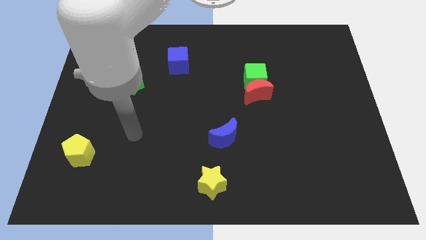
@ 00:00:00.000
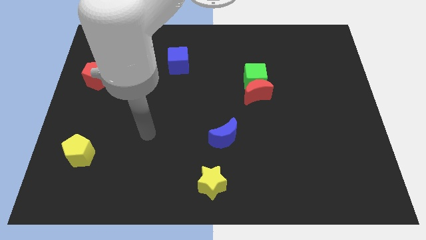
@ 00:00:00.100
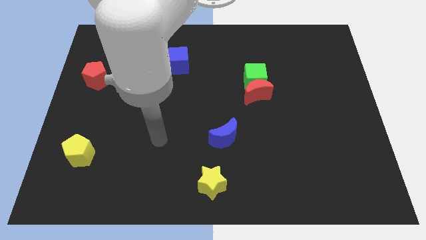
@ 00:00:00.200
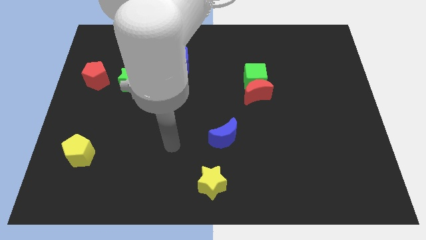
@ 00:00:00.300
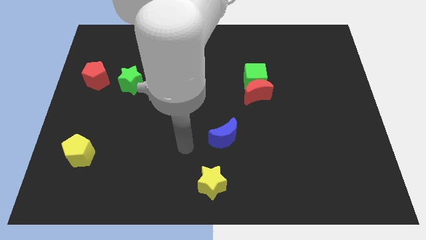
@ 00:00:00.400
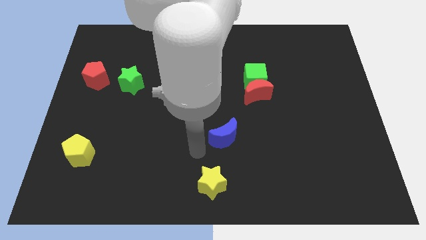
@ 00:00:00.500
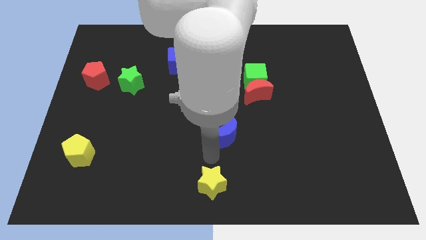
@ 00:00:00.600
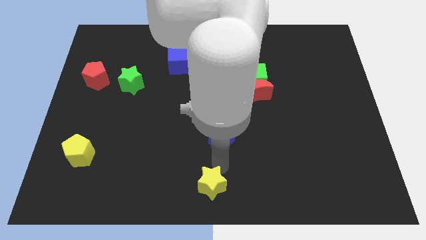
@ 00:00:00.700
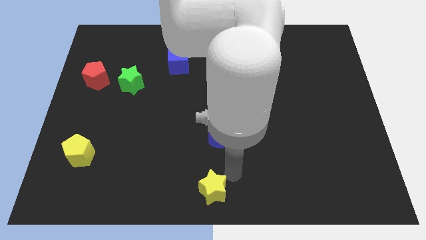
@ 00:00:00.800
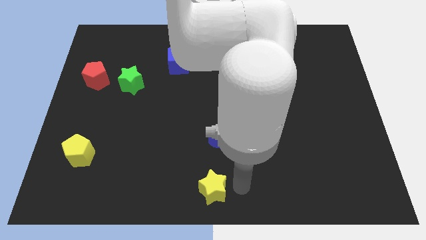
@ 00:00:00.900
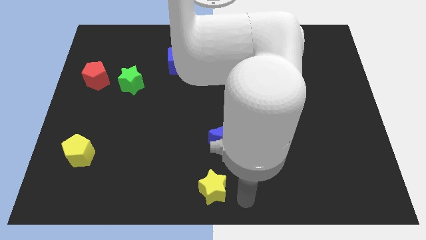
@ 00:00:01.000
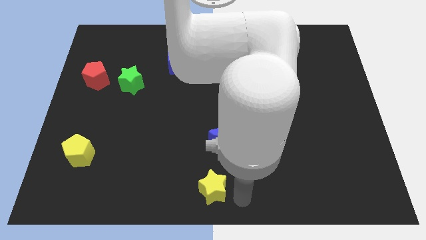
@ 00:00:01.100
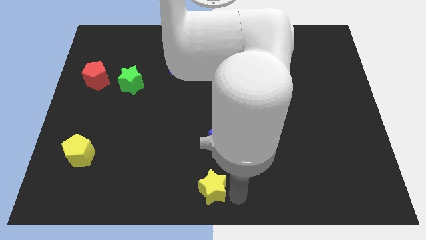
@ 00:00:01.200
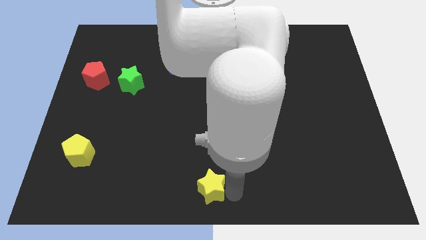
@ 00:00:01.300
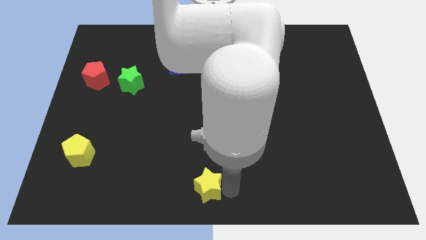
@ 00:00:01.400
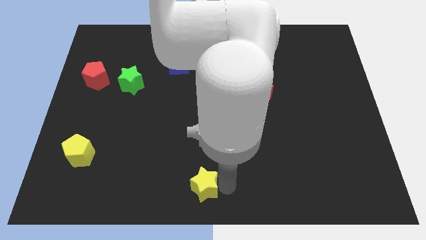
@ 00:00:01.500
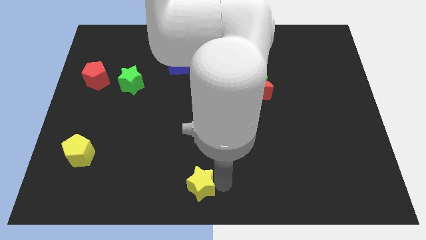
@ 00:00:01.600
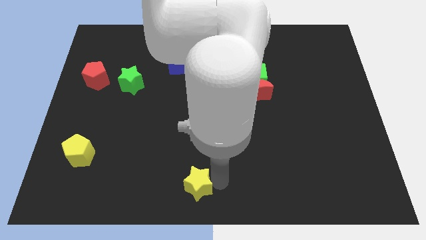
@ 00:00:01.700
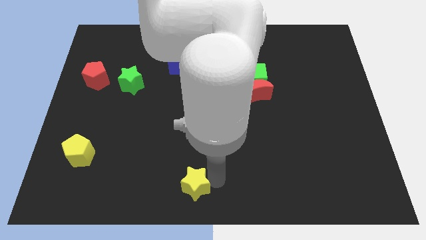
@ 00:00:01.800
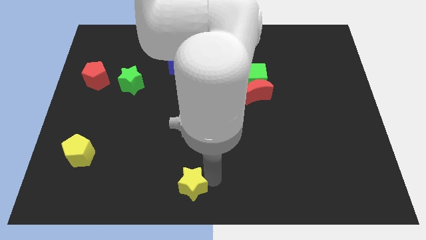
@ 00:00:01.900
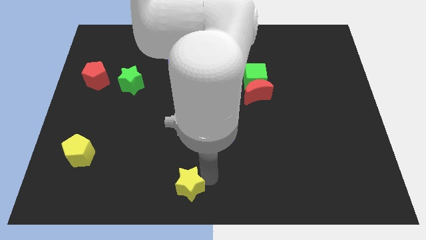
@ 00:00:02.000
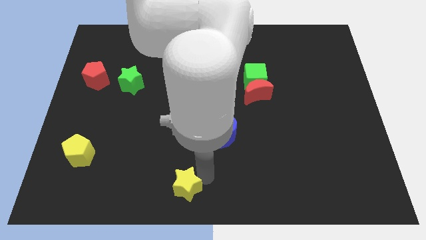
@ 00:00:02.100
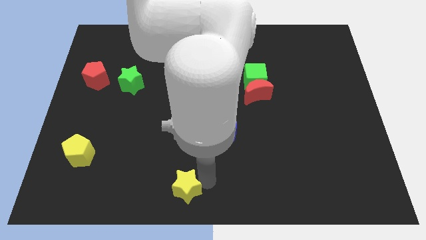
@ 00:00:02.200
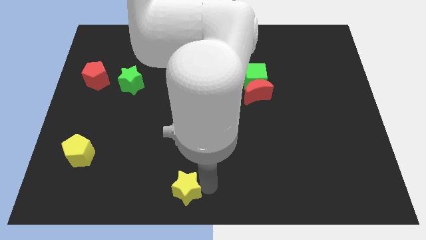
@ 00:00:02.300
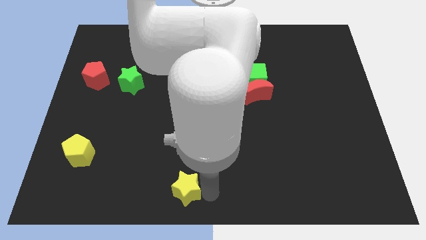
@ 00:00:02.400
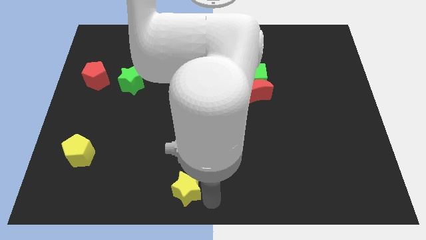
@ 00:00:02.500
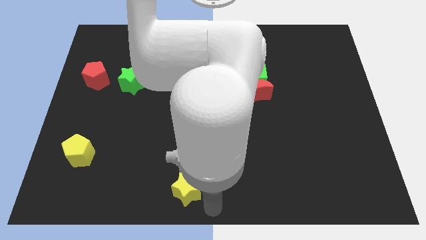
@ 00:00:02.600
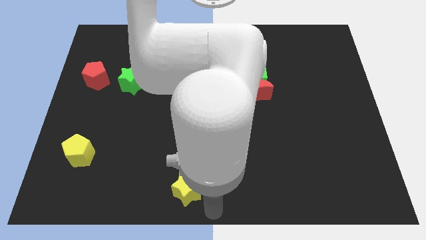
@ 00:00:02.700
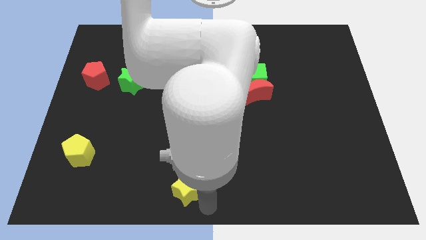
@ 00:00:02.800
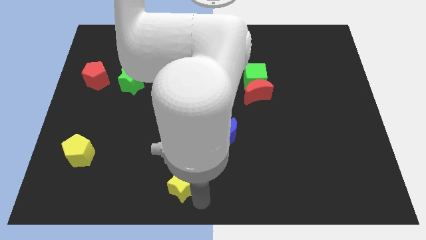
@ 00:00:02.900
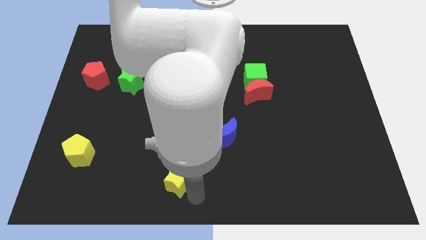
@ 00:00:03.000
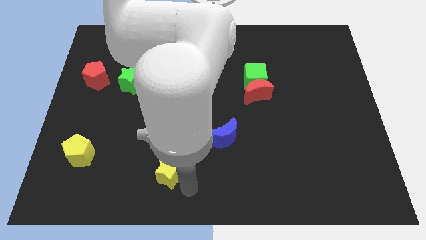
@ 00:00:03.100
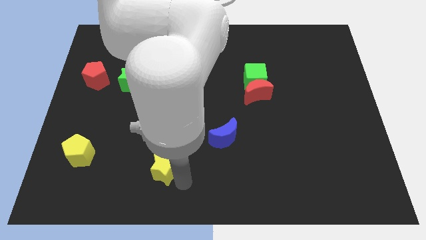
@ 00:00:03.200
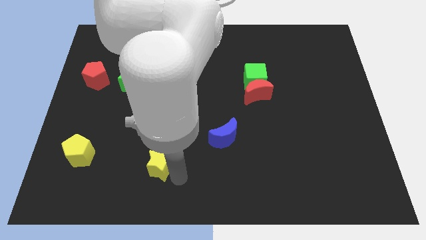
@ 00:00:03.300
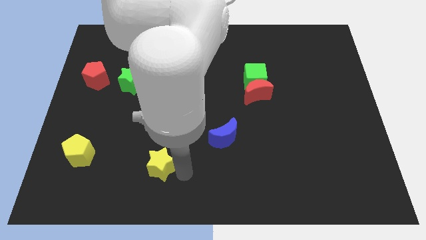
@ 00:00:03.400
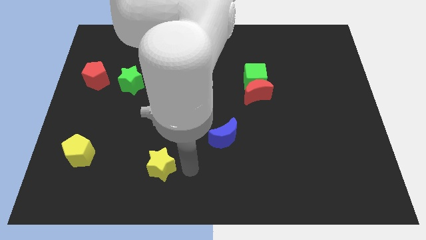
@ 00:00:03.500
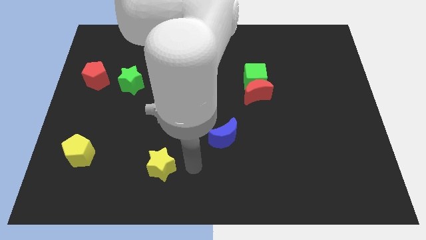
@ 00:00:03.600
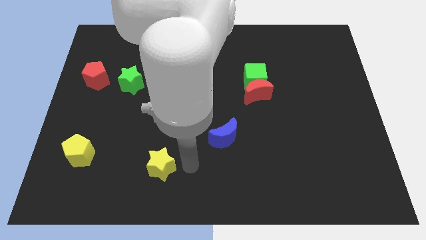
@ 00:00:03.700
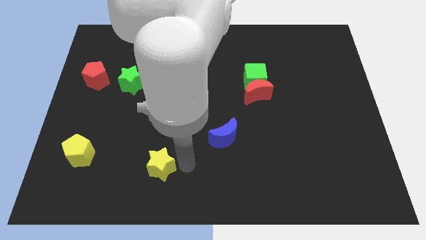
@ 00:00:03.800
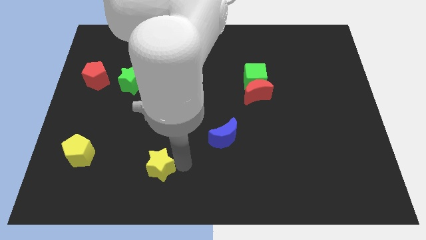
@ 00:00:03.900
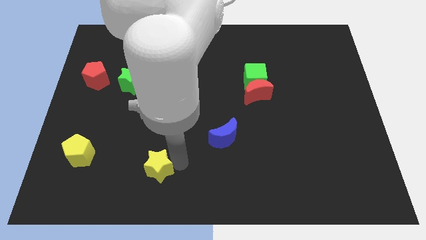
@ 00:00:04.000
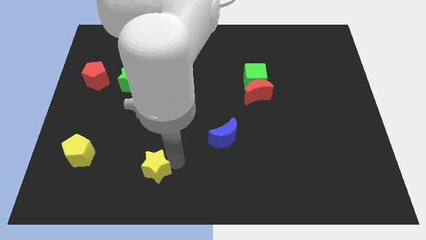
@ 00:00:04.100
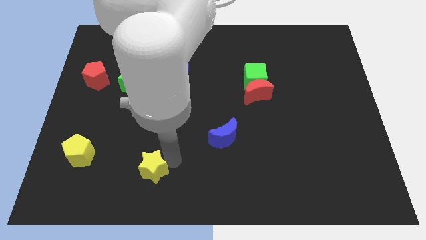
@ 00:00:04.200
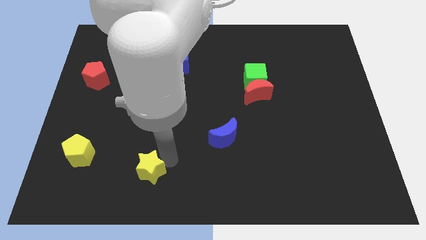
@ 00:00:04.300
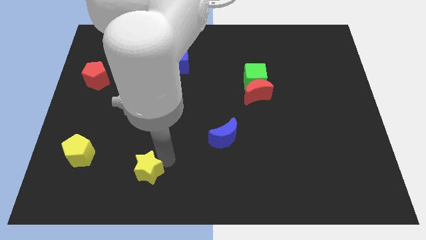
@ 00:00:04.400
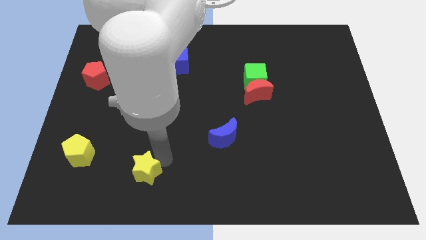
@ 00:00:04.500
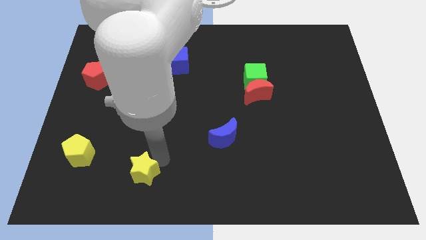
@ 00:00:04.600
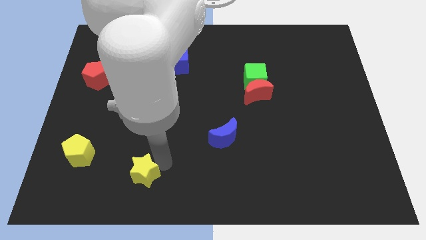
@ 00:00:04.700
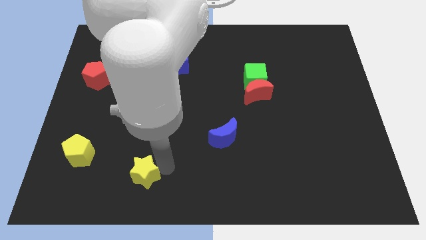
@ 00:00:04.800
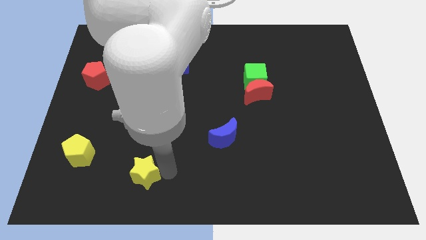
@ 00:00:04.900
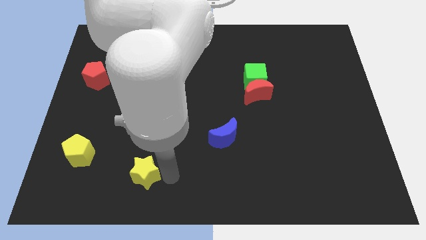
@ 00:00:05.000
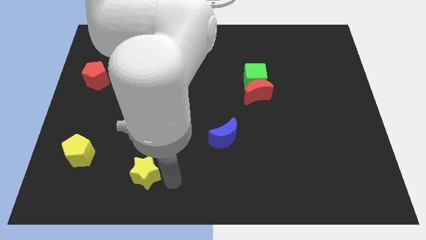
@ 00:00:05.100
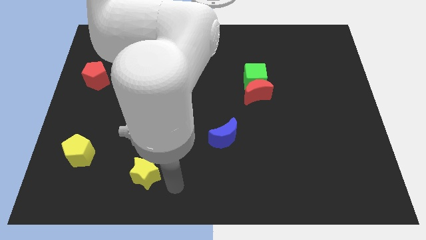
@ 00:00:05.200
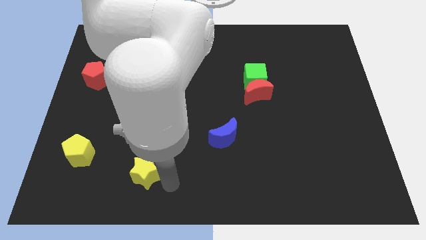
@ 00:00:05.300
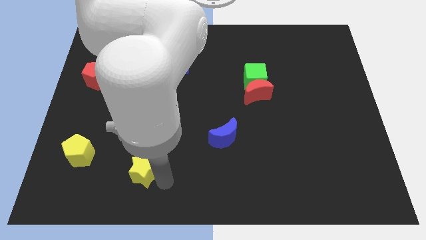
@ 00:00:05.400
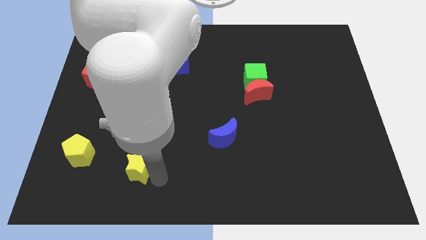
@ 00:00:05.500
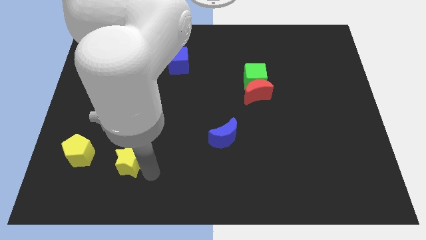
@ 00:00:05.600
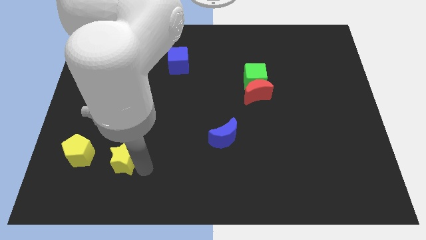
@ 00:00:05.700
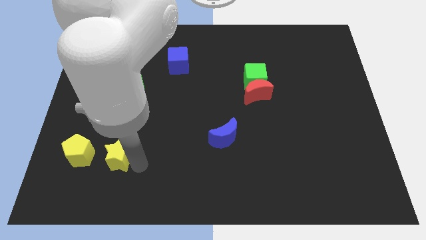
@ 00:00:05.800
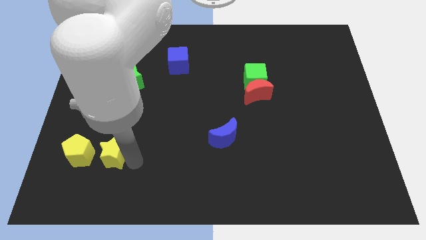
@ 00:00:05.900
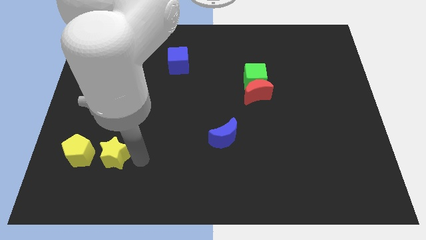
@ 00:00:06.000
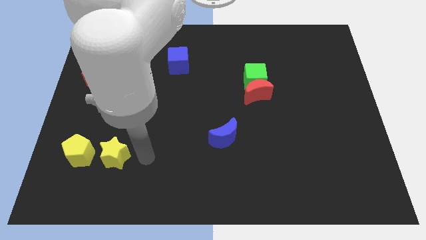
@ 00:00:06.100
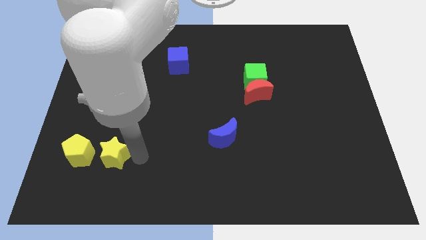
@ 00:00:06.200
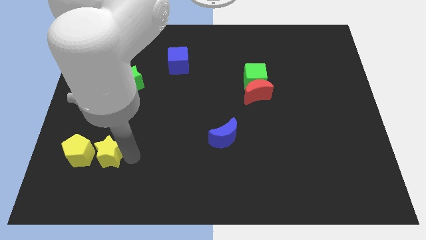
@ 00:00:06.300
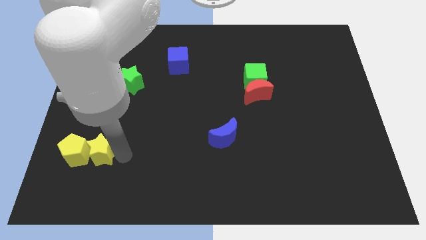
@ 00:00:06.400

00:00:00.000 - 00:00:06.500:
push the yellow star next to the yellow pentagon

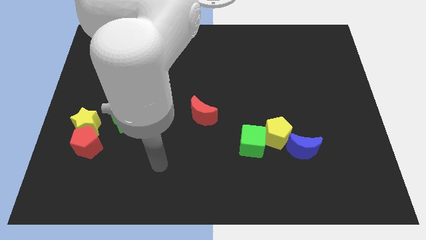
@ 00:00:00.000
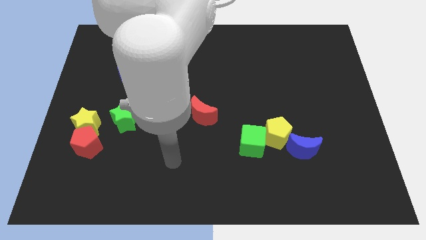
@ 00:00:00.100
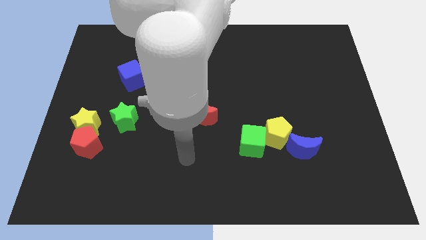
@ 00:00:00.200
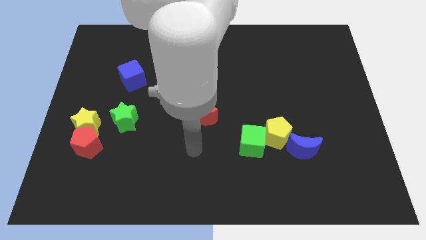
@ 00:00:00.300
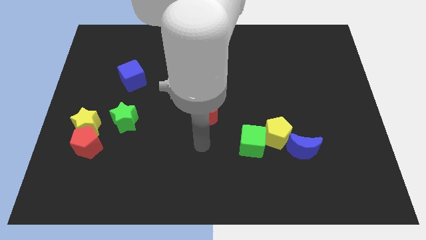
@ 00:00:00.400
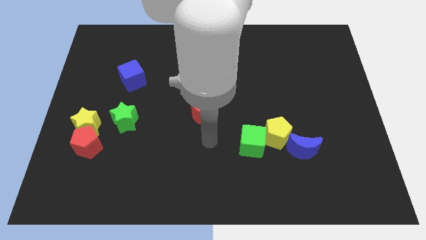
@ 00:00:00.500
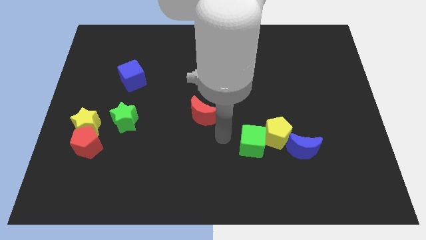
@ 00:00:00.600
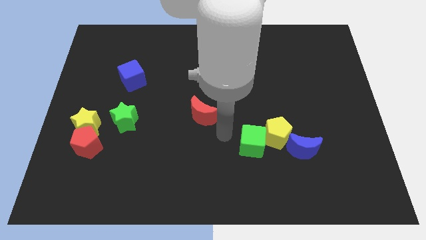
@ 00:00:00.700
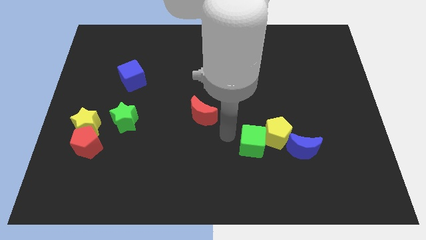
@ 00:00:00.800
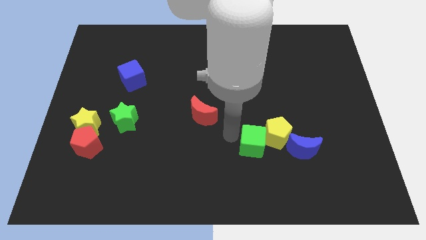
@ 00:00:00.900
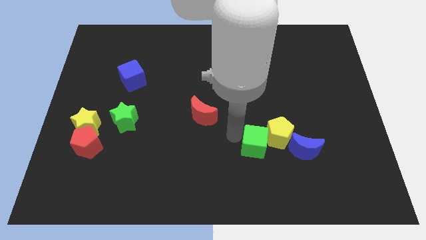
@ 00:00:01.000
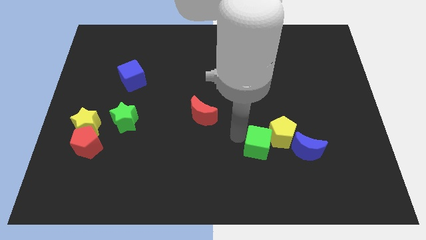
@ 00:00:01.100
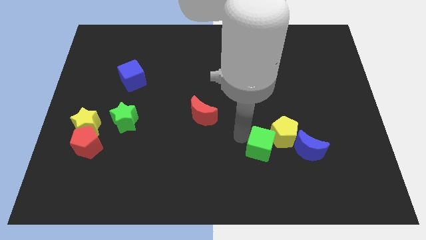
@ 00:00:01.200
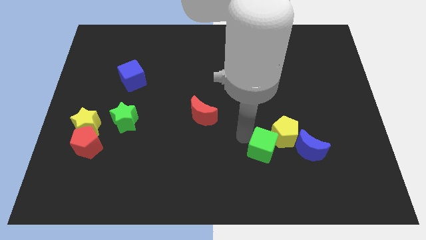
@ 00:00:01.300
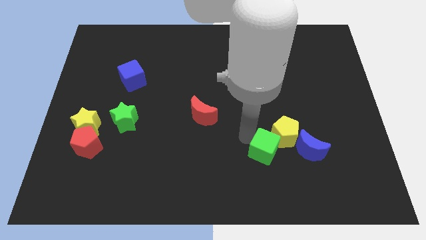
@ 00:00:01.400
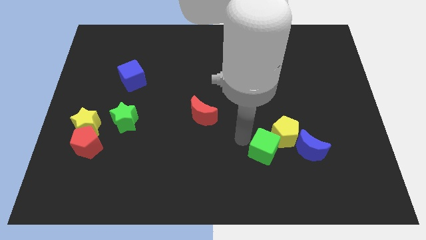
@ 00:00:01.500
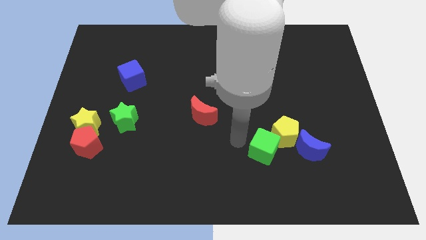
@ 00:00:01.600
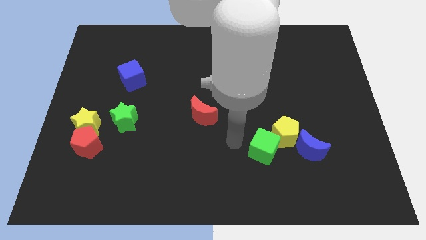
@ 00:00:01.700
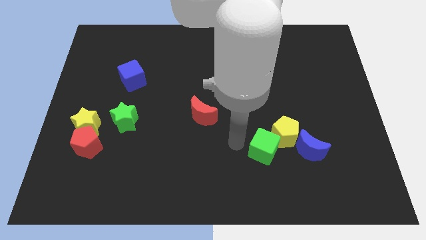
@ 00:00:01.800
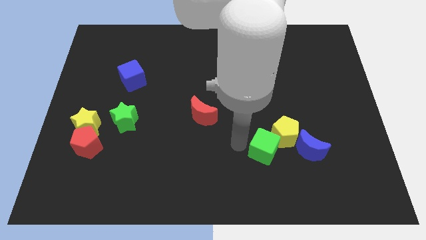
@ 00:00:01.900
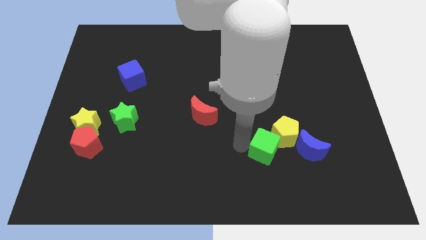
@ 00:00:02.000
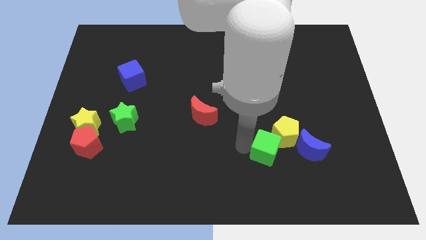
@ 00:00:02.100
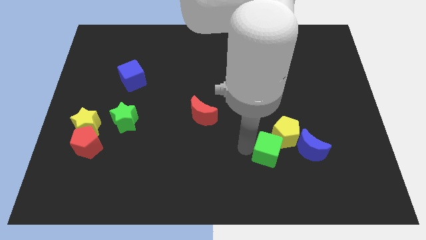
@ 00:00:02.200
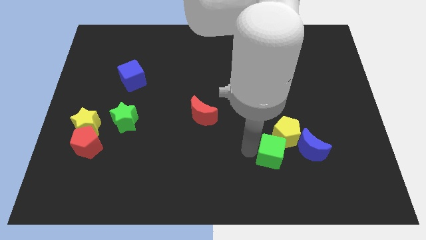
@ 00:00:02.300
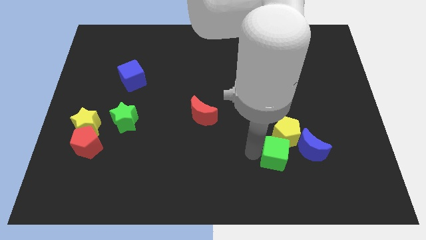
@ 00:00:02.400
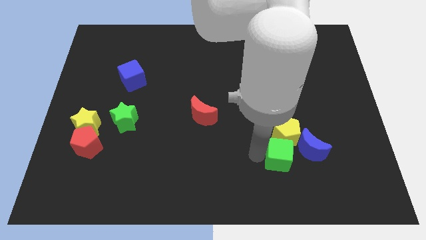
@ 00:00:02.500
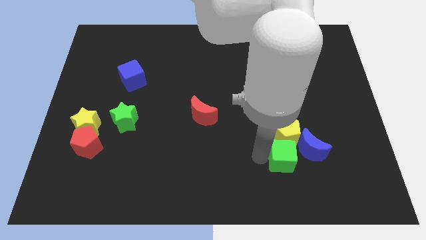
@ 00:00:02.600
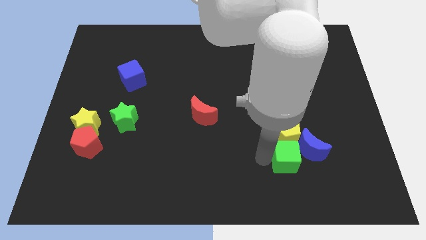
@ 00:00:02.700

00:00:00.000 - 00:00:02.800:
slide the green cube close to the blue moon
